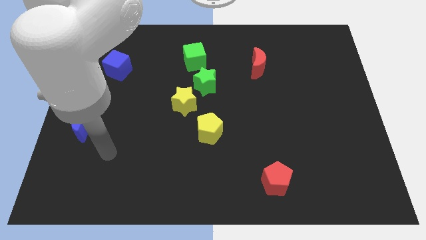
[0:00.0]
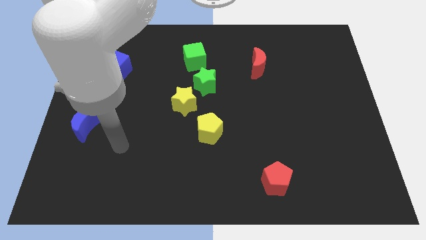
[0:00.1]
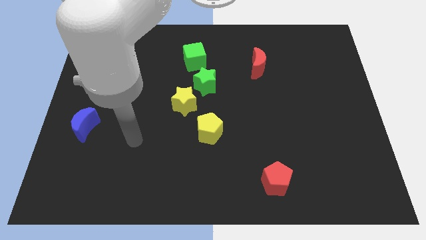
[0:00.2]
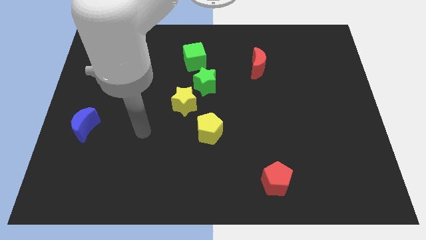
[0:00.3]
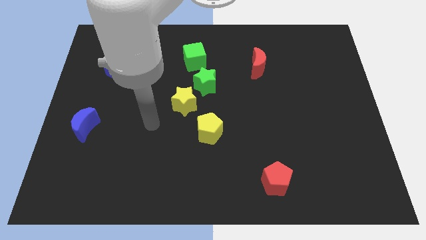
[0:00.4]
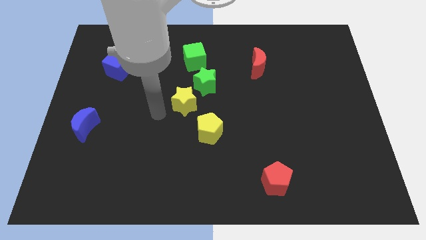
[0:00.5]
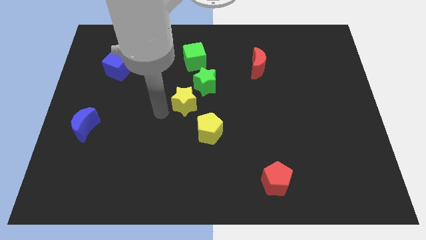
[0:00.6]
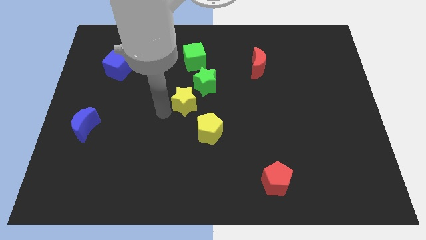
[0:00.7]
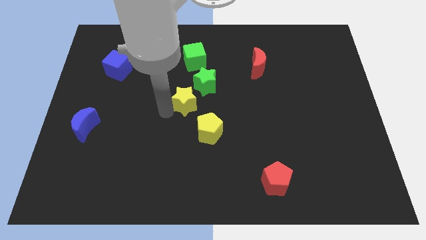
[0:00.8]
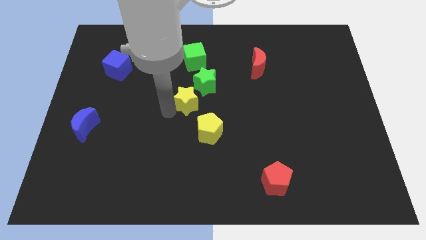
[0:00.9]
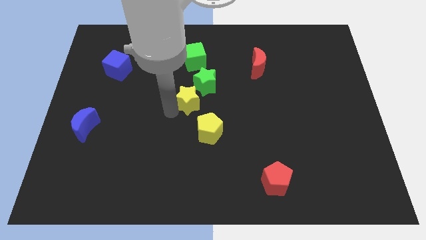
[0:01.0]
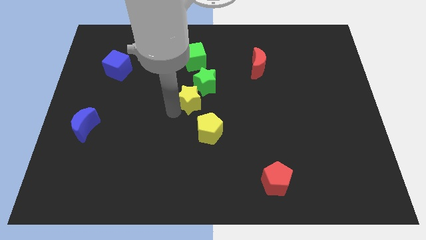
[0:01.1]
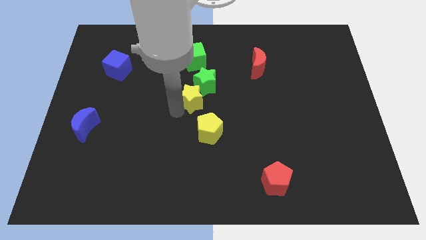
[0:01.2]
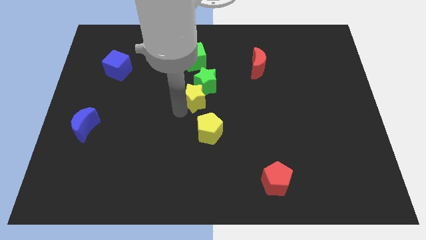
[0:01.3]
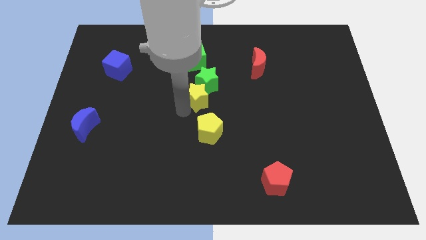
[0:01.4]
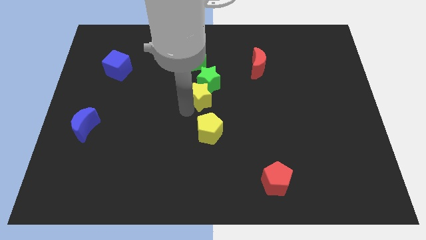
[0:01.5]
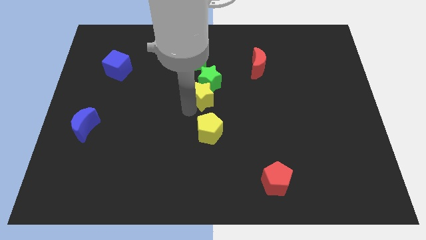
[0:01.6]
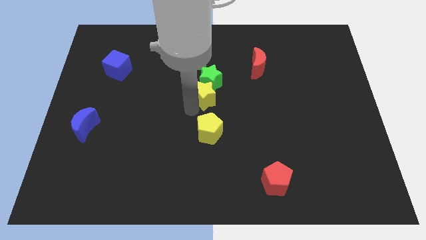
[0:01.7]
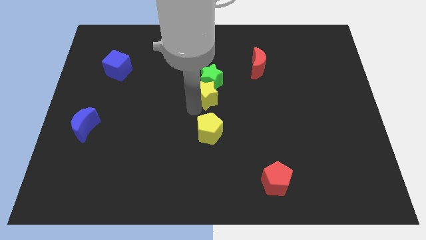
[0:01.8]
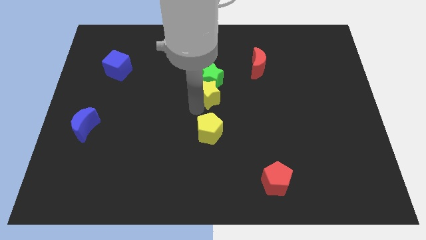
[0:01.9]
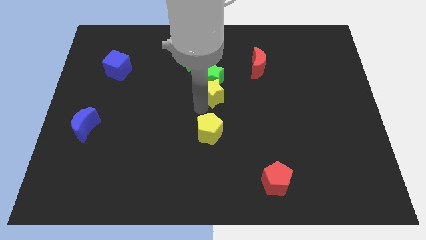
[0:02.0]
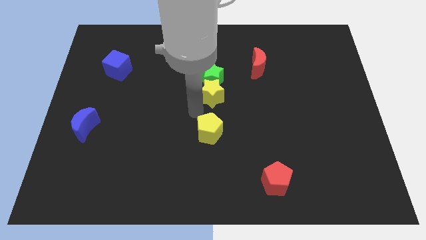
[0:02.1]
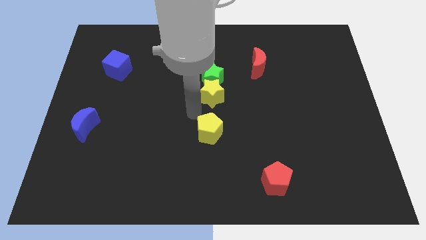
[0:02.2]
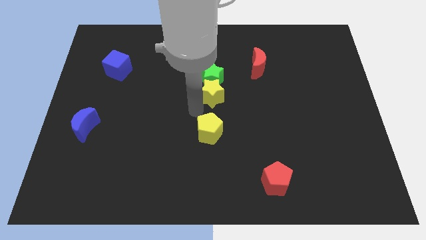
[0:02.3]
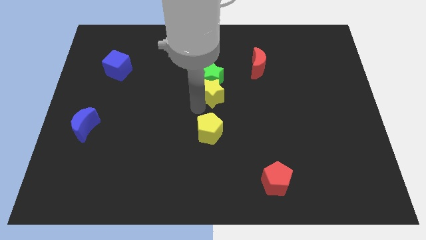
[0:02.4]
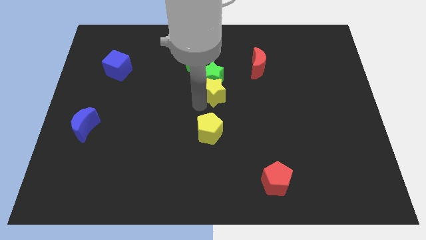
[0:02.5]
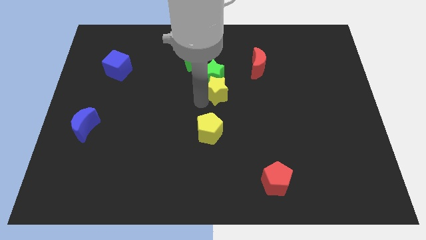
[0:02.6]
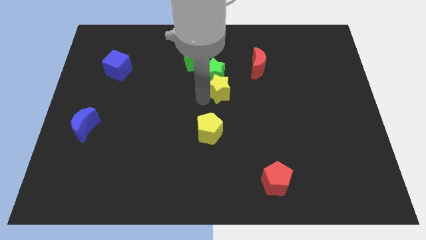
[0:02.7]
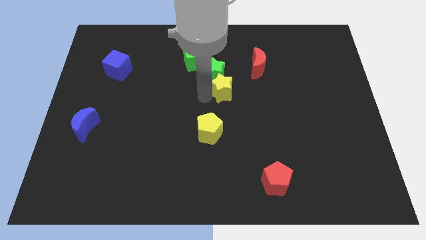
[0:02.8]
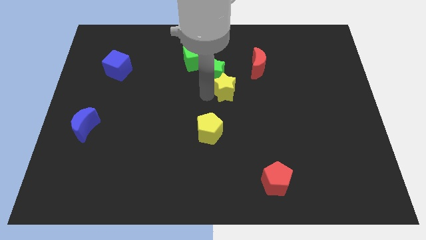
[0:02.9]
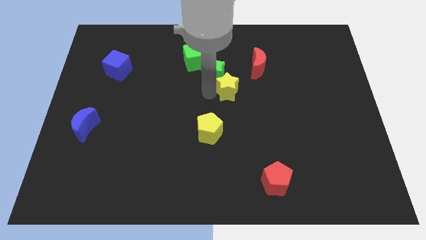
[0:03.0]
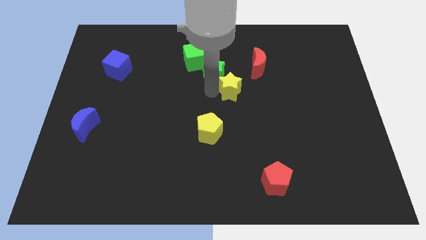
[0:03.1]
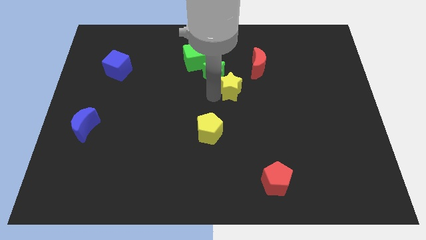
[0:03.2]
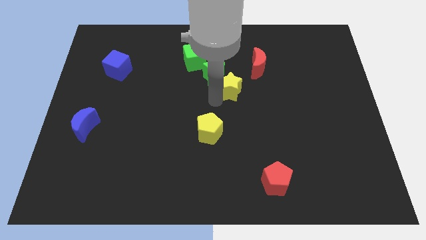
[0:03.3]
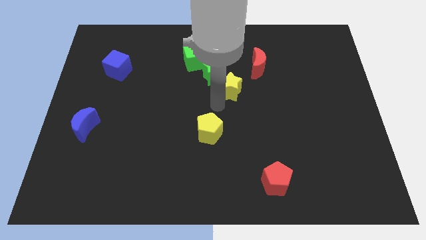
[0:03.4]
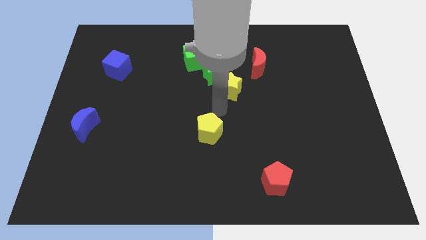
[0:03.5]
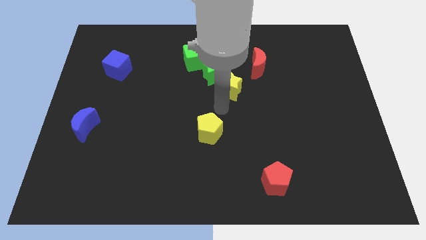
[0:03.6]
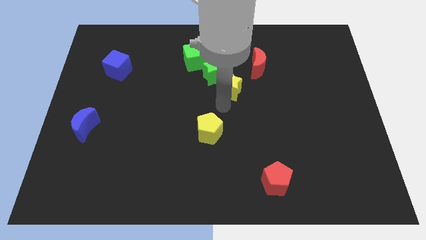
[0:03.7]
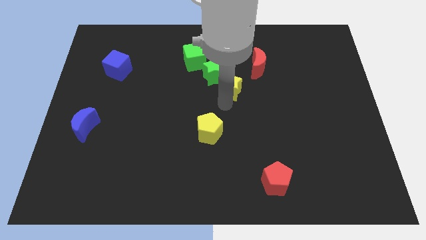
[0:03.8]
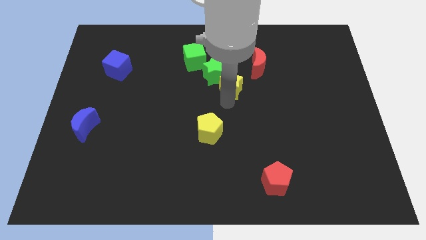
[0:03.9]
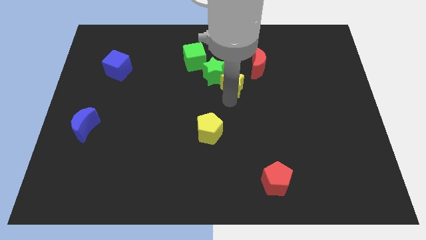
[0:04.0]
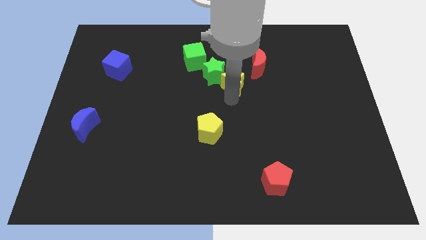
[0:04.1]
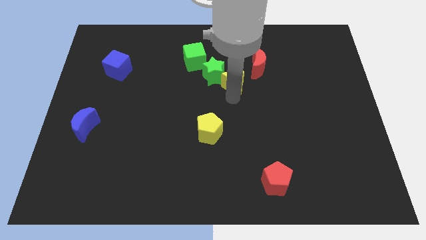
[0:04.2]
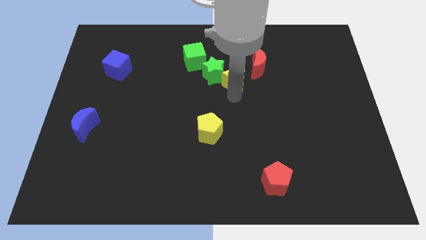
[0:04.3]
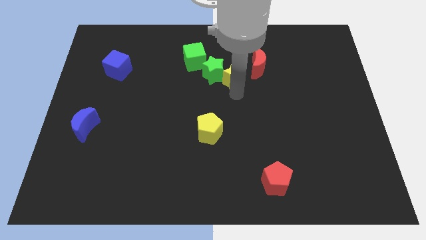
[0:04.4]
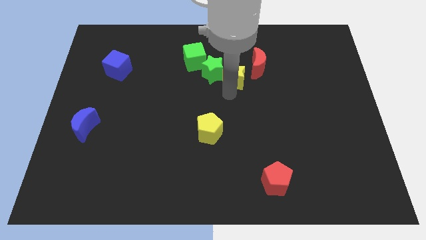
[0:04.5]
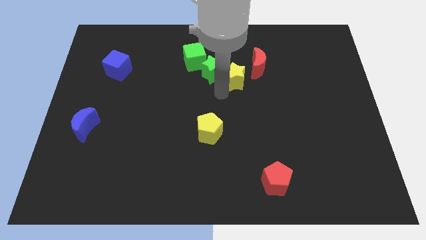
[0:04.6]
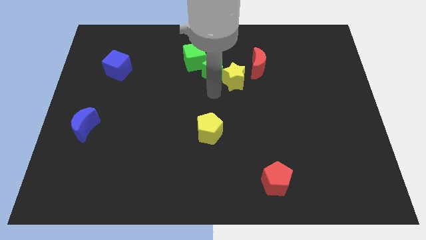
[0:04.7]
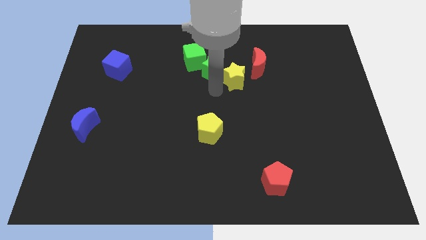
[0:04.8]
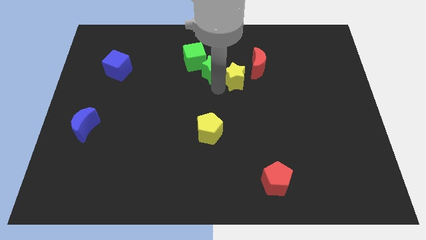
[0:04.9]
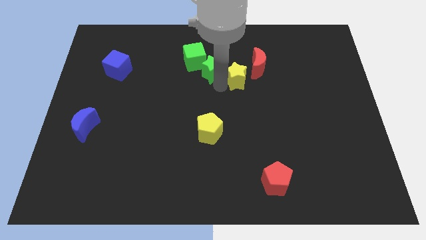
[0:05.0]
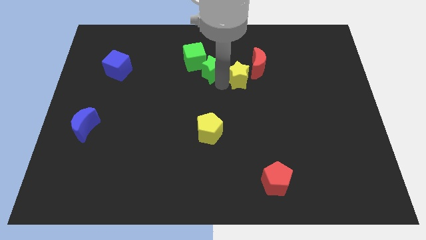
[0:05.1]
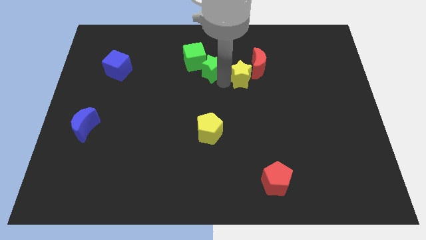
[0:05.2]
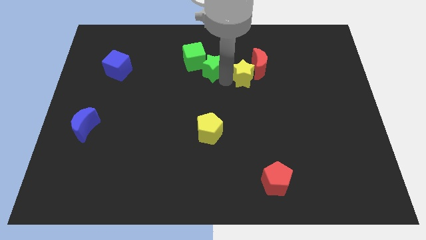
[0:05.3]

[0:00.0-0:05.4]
push the yellow star close to the red moon

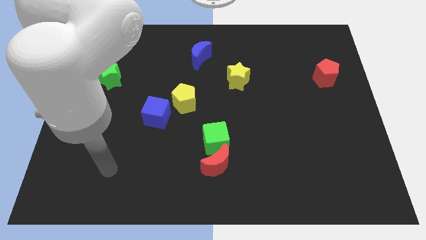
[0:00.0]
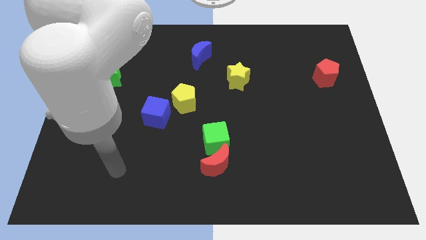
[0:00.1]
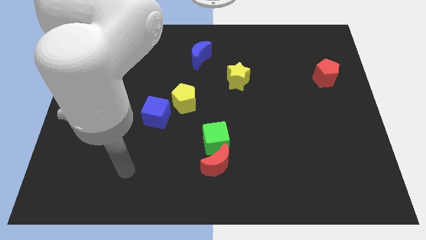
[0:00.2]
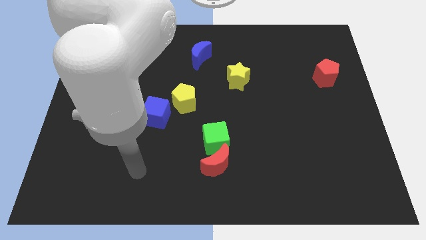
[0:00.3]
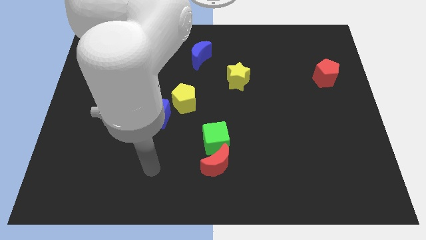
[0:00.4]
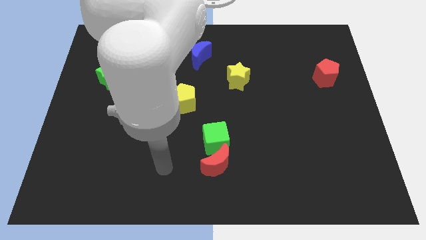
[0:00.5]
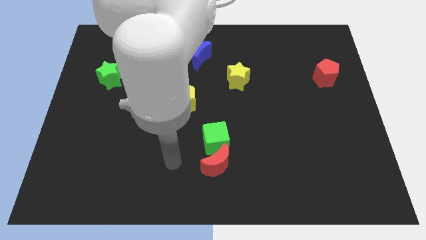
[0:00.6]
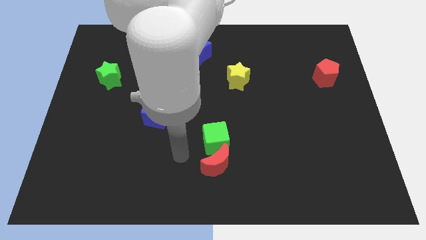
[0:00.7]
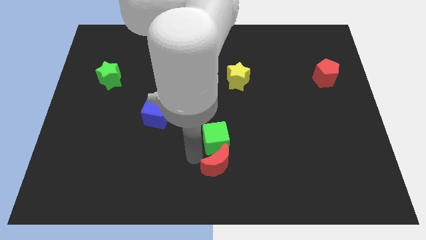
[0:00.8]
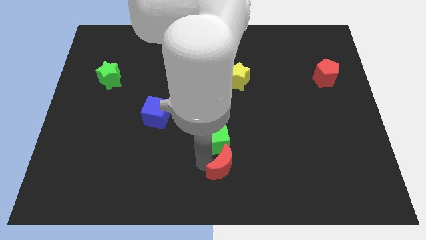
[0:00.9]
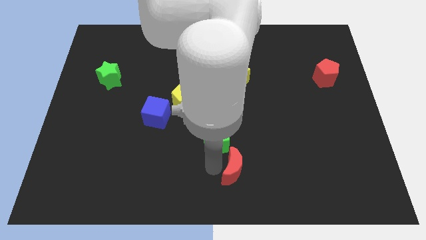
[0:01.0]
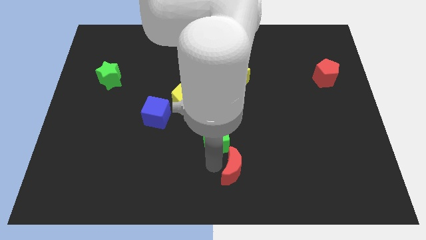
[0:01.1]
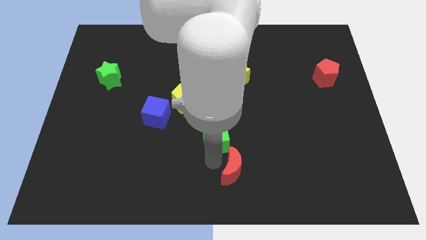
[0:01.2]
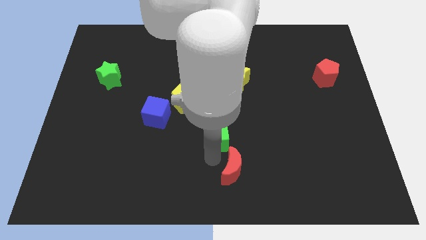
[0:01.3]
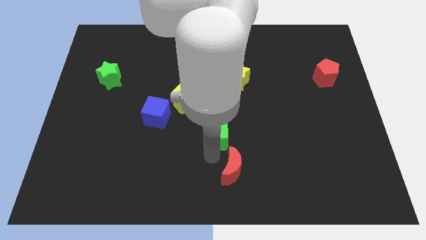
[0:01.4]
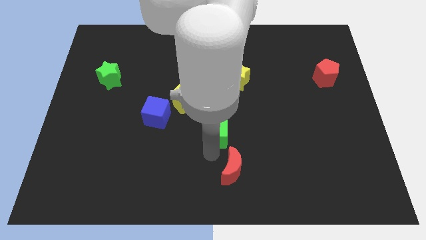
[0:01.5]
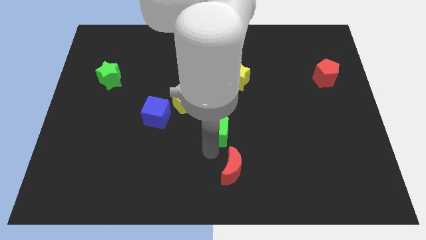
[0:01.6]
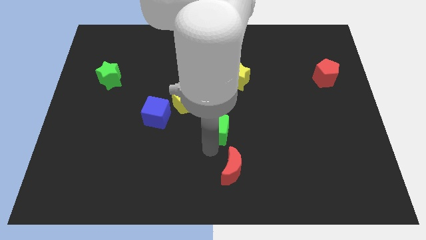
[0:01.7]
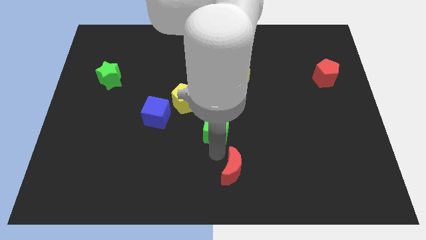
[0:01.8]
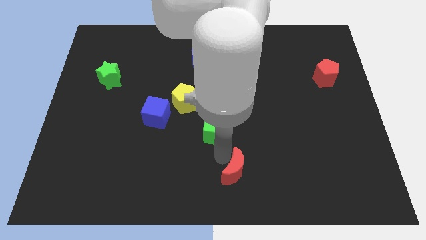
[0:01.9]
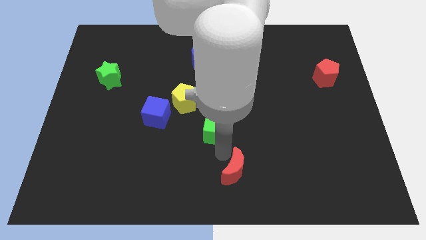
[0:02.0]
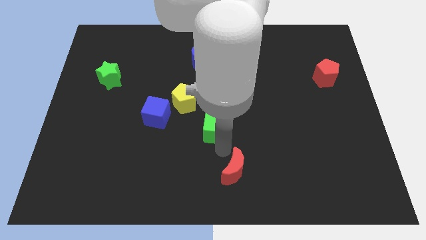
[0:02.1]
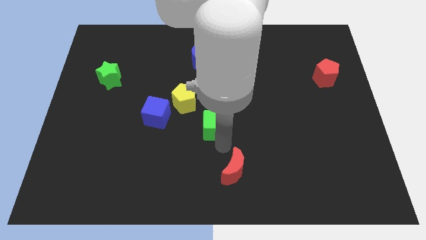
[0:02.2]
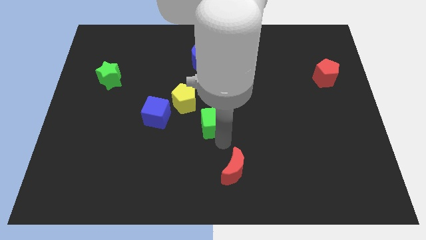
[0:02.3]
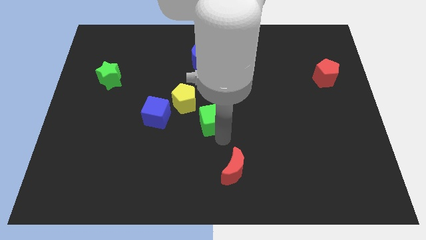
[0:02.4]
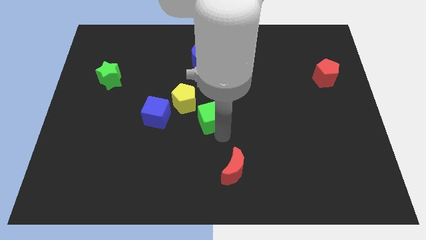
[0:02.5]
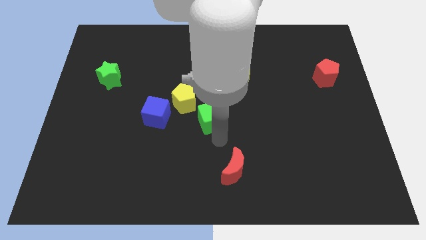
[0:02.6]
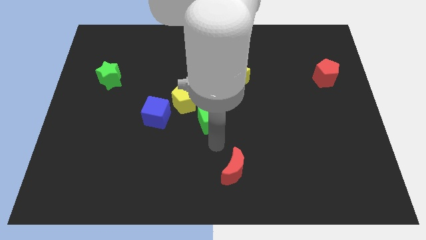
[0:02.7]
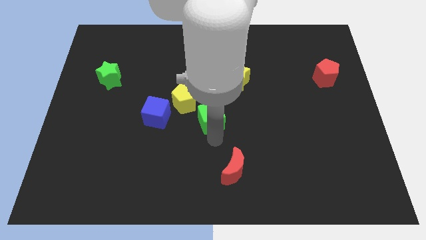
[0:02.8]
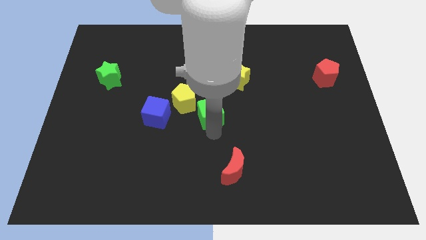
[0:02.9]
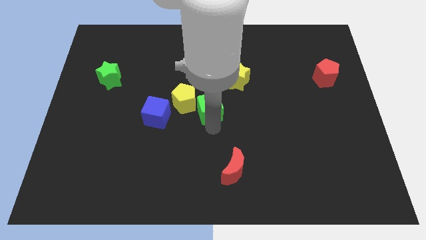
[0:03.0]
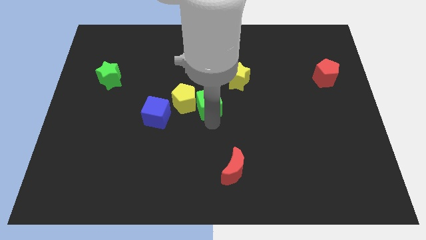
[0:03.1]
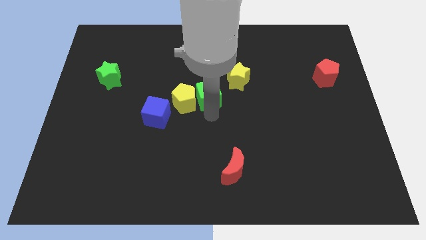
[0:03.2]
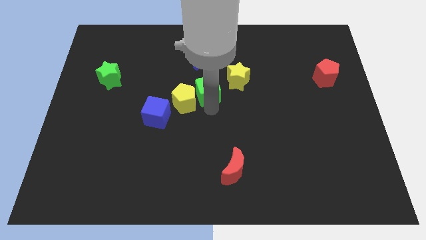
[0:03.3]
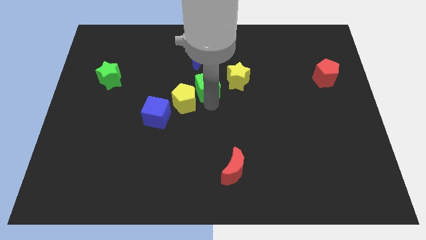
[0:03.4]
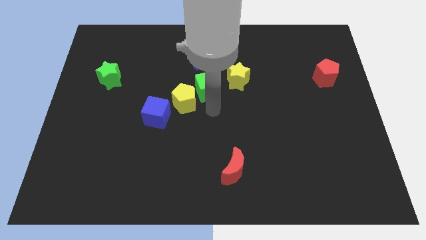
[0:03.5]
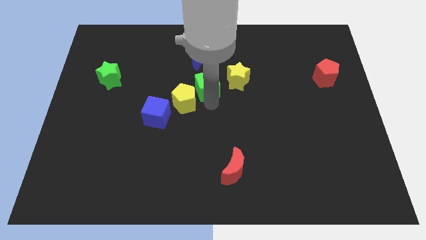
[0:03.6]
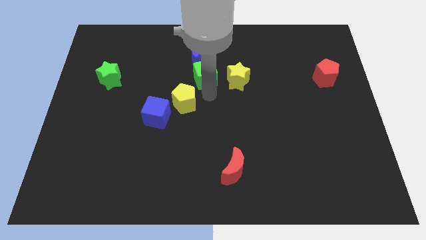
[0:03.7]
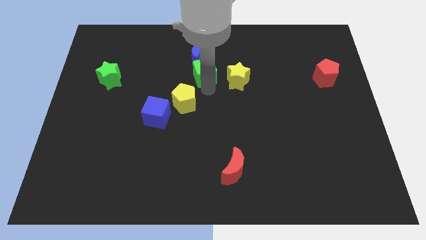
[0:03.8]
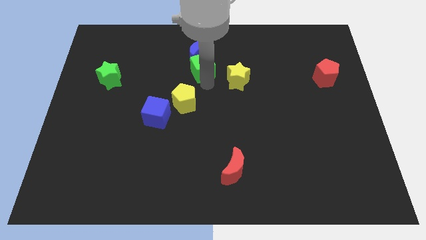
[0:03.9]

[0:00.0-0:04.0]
slide the green cube next to the blue moon
